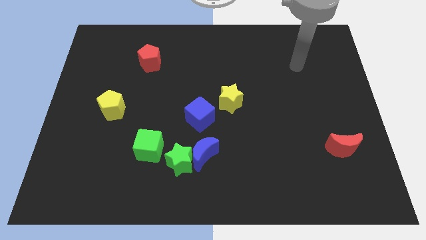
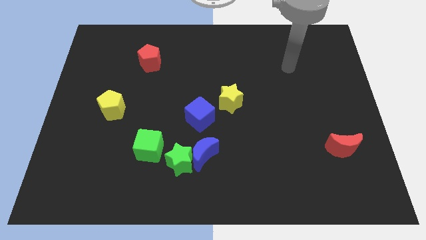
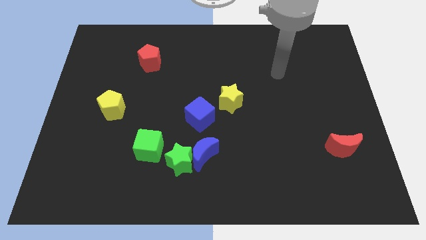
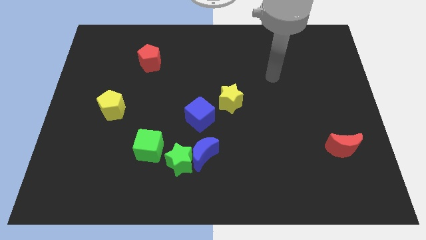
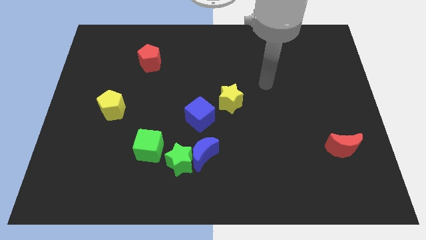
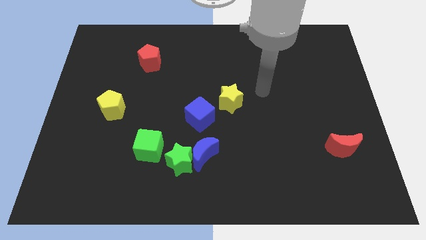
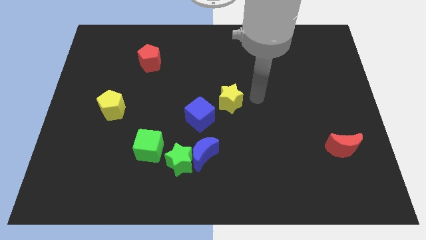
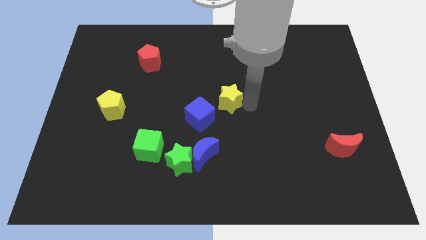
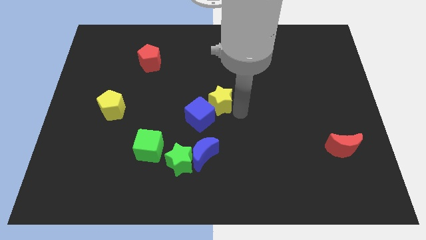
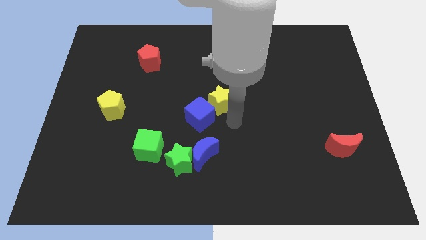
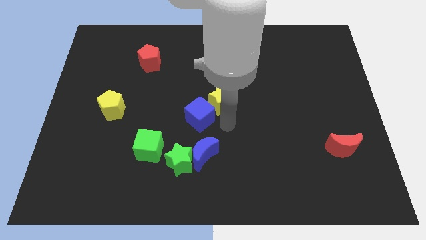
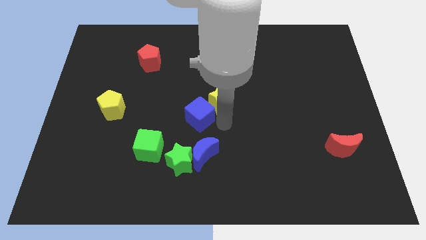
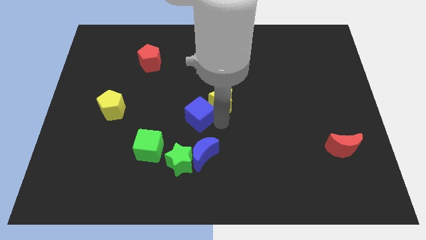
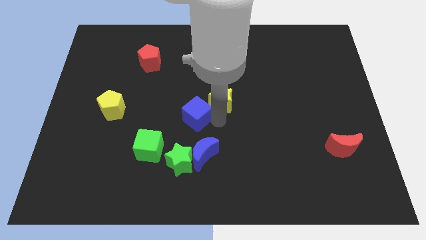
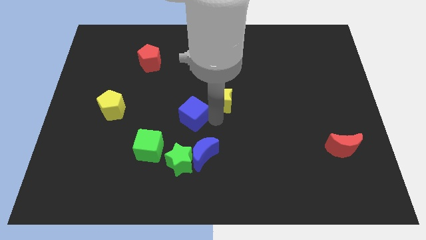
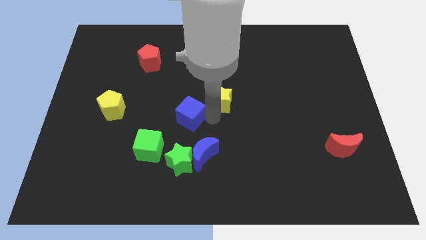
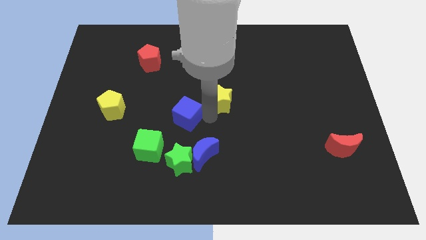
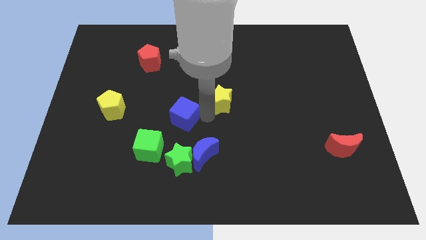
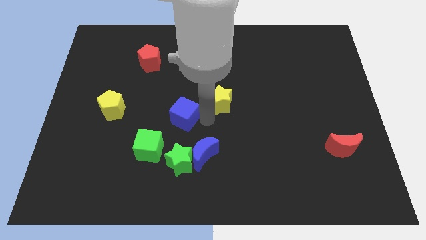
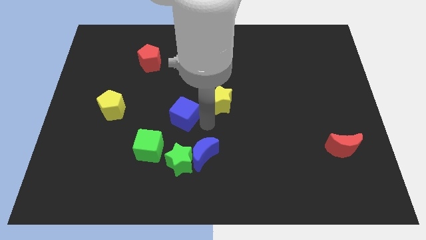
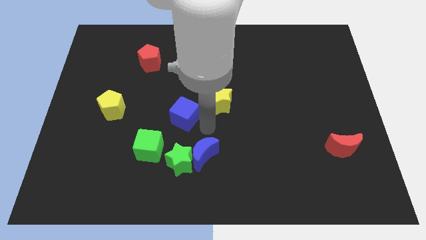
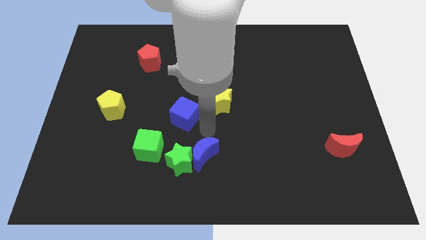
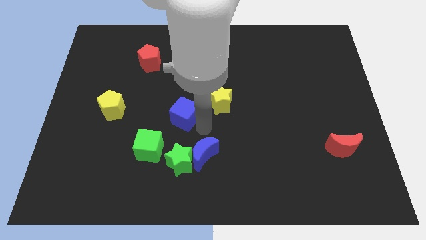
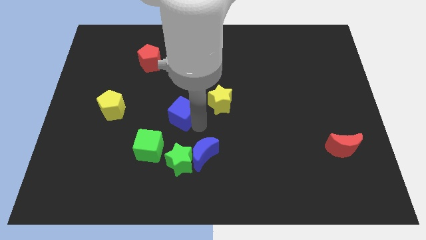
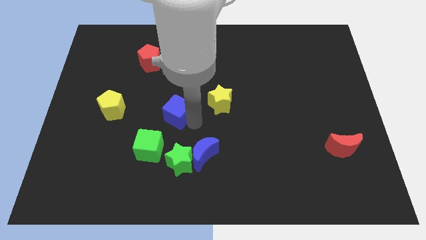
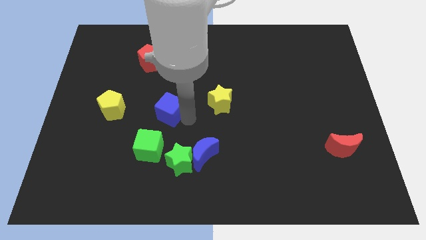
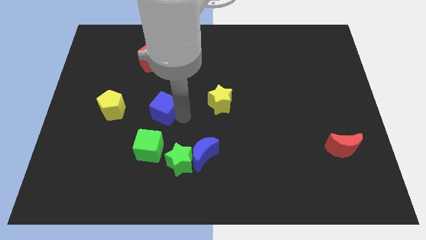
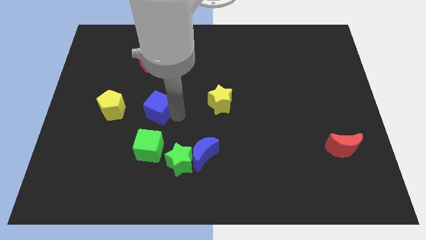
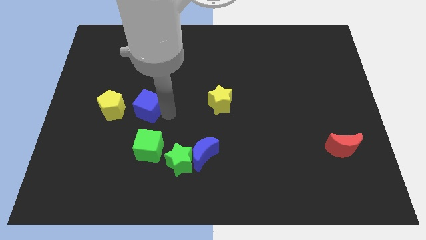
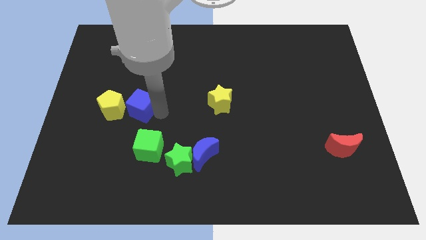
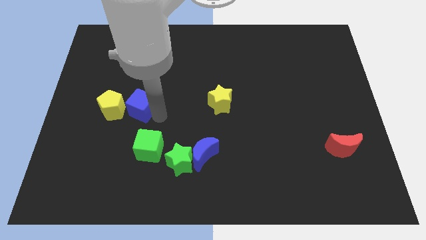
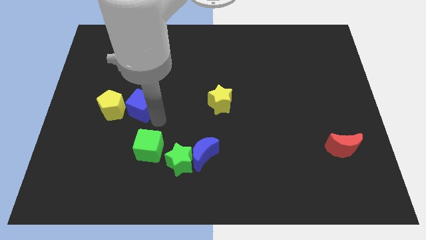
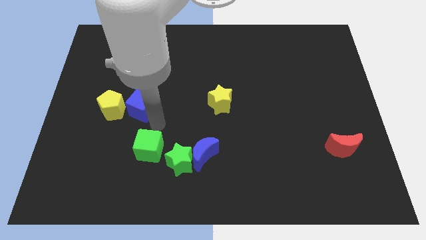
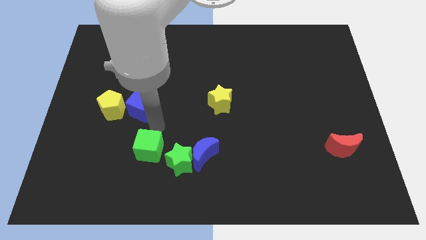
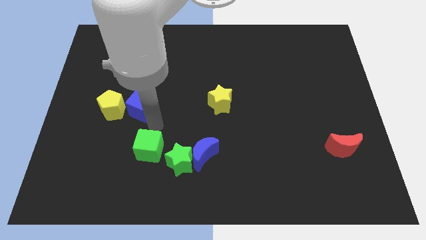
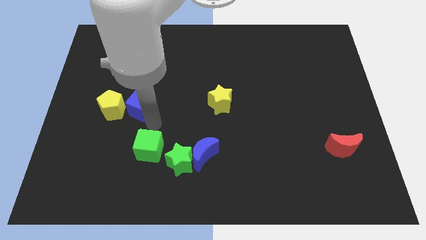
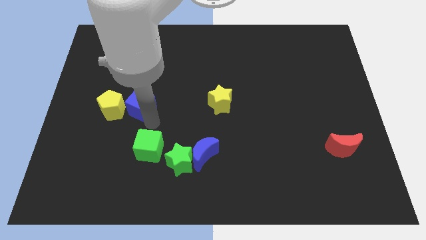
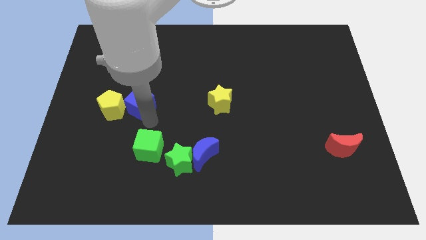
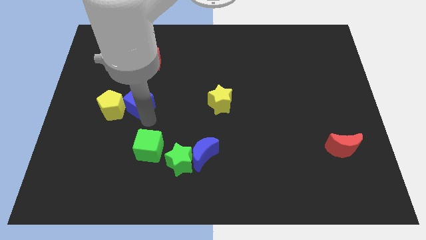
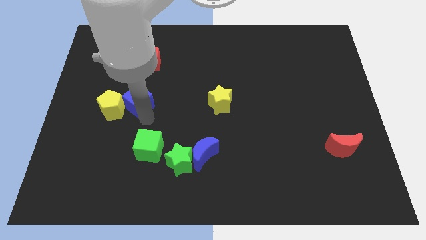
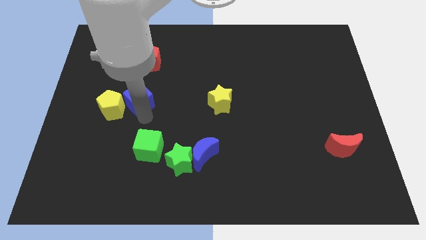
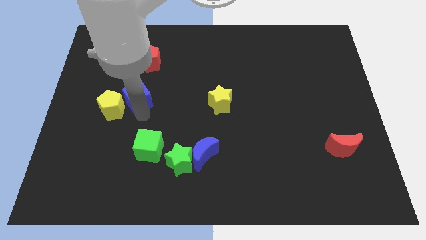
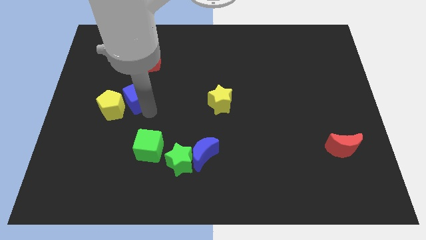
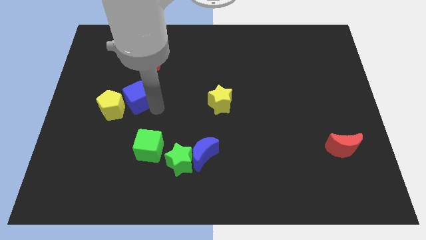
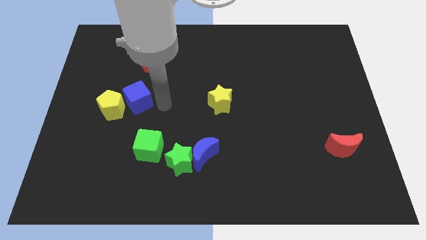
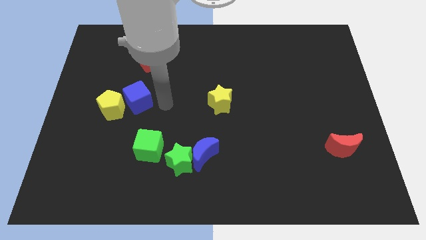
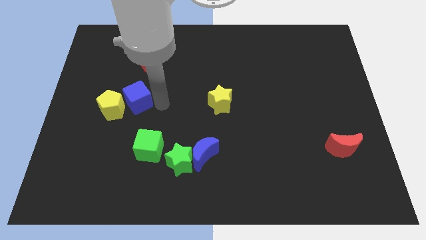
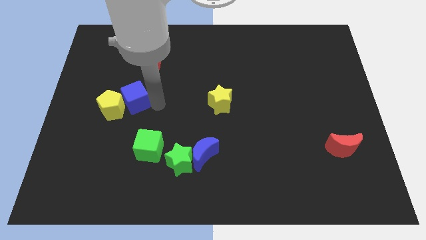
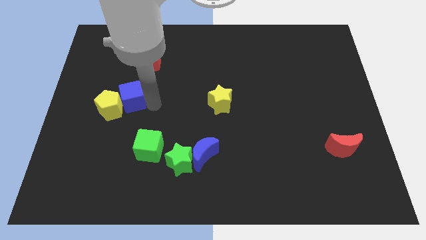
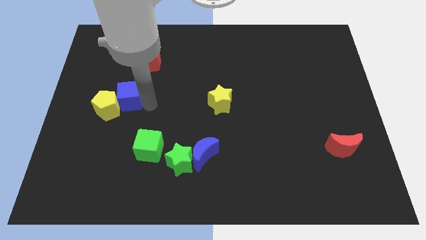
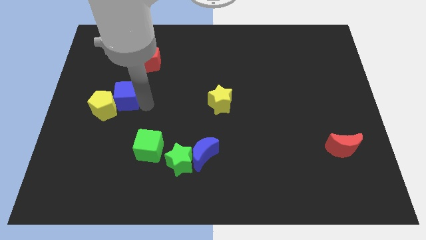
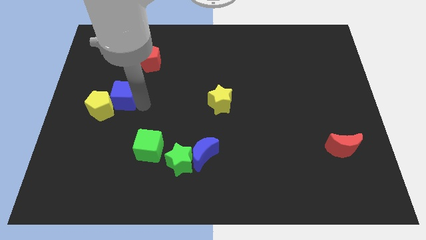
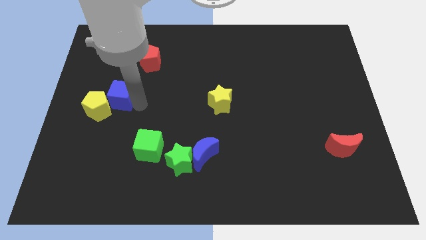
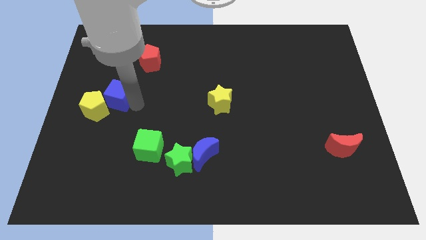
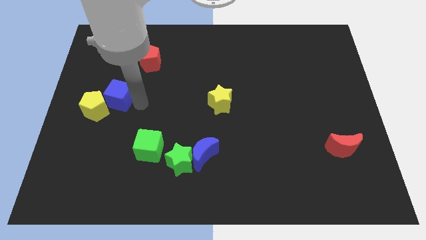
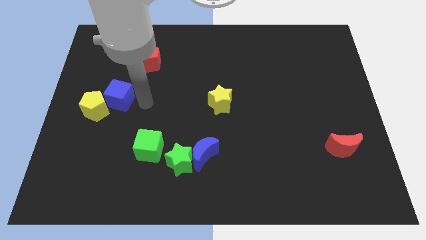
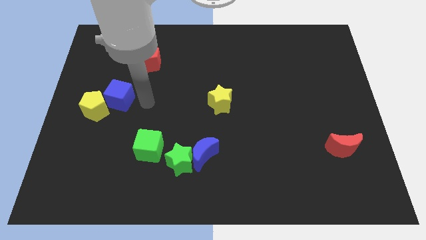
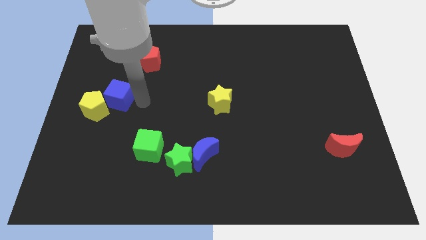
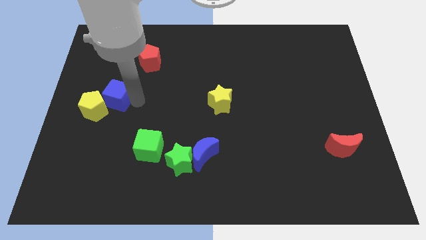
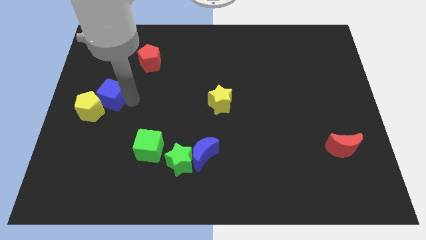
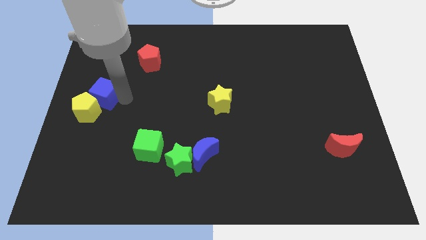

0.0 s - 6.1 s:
move the blue cube to the left side
